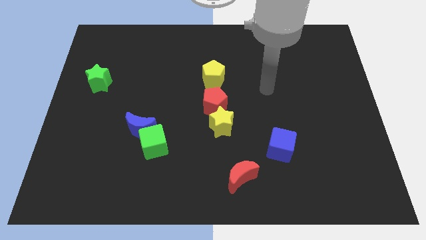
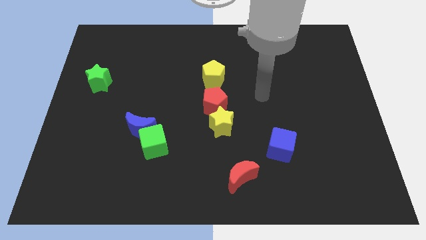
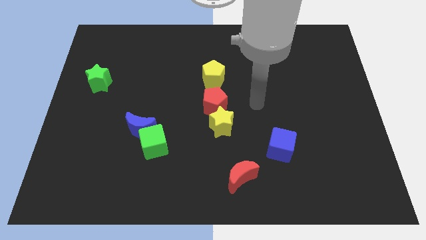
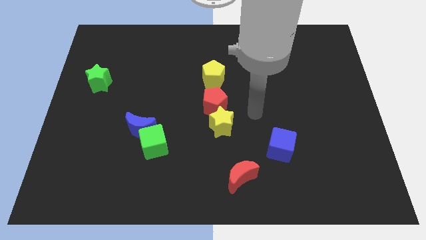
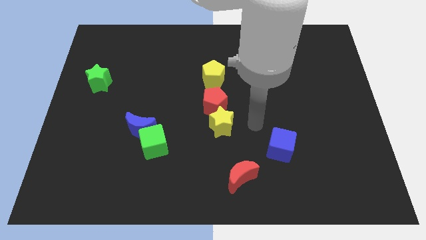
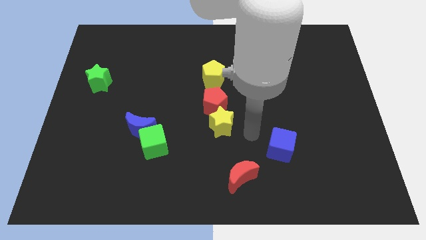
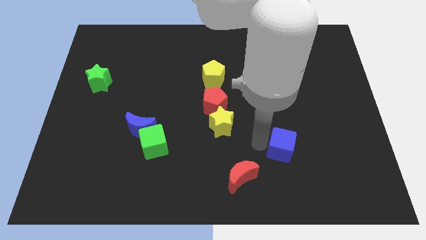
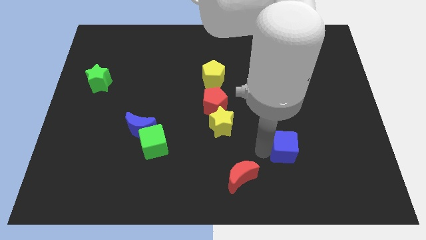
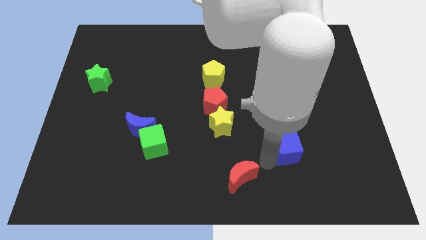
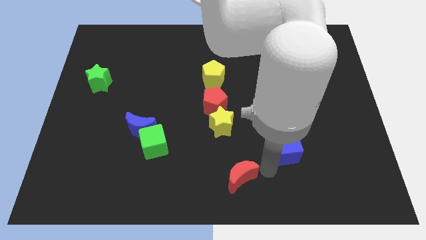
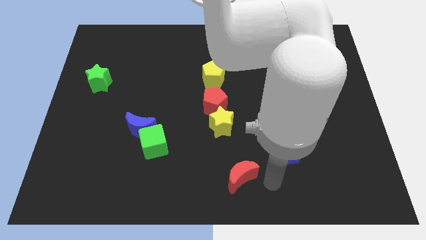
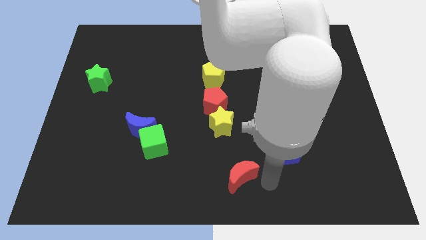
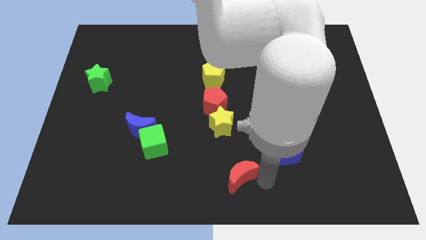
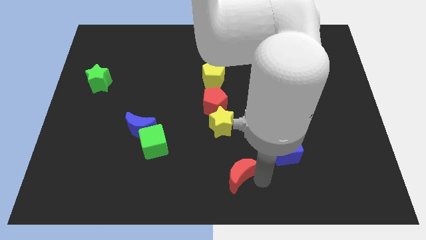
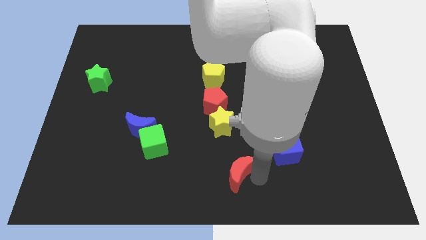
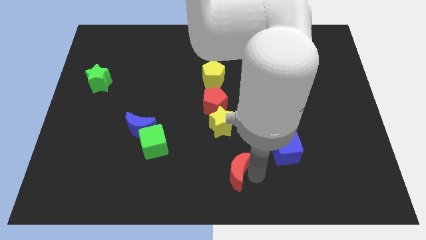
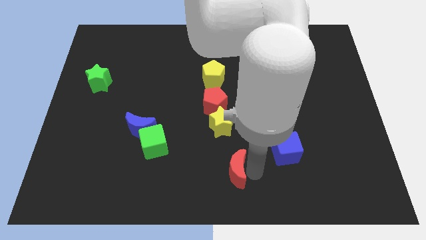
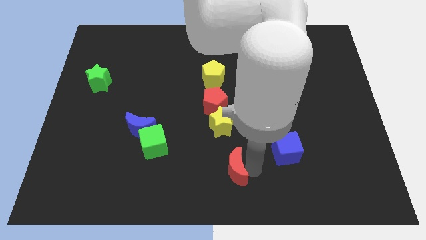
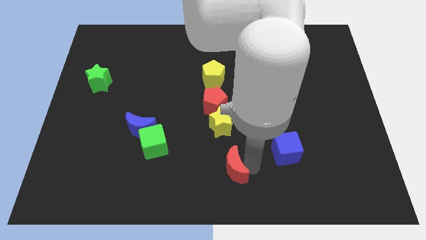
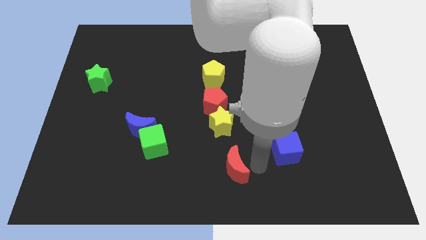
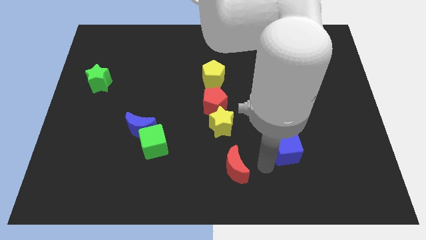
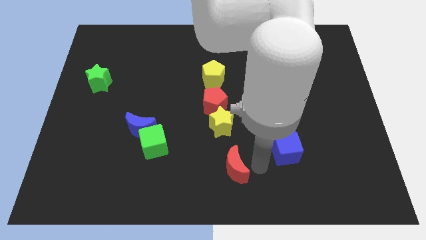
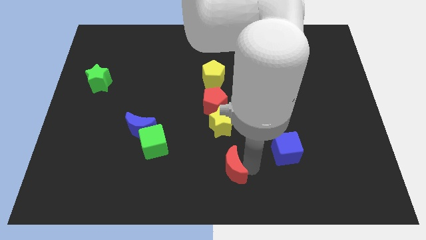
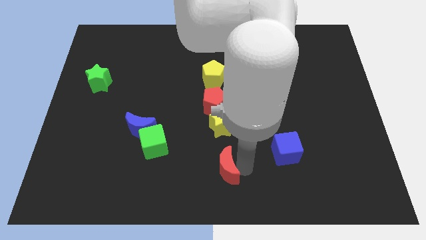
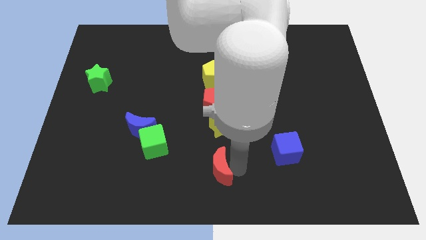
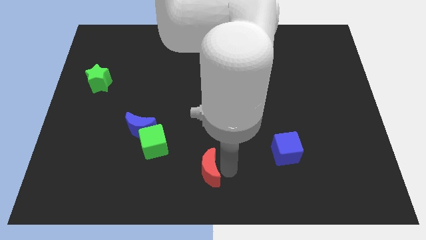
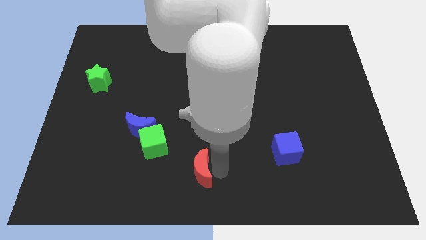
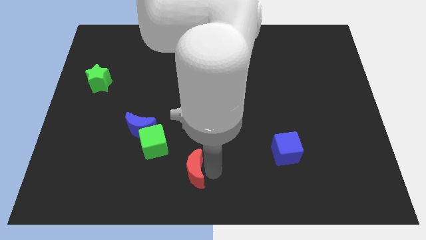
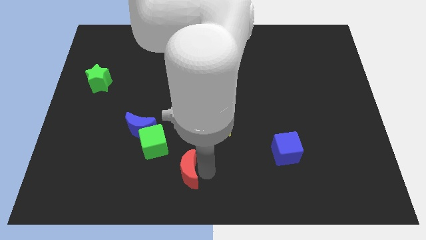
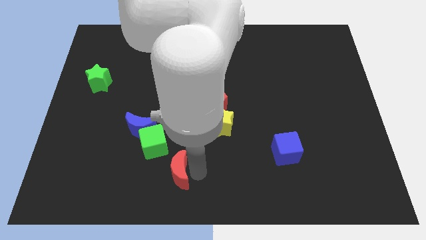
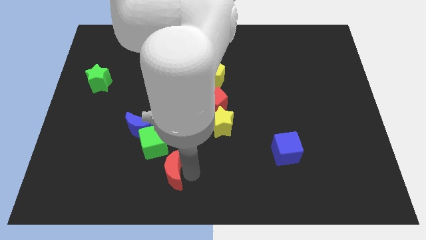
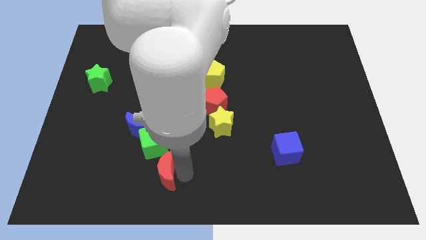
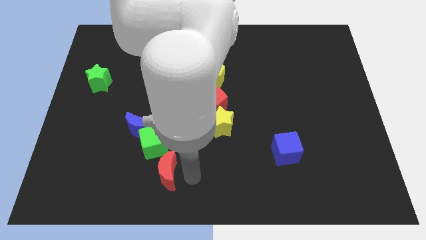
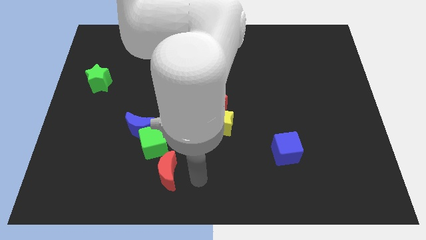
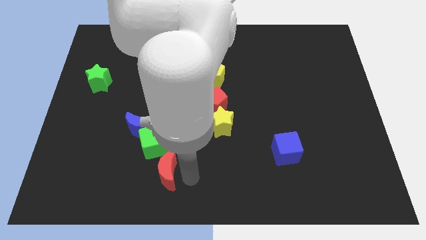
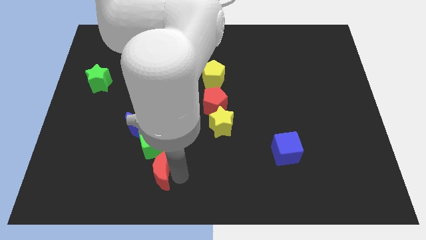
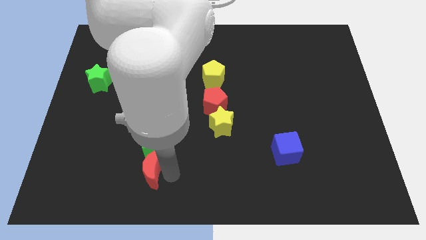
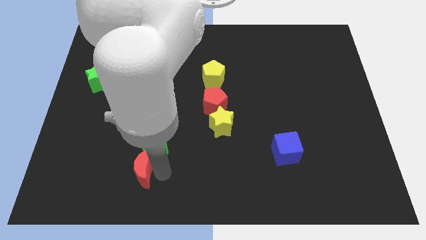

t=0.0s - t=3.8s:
push the red moon left

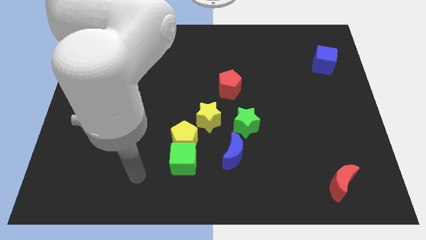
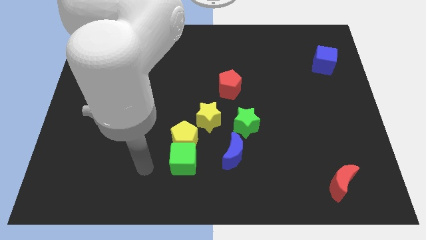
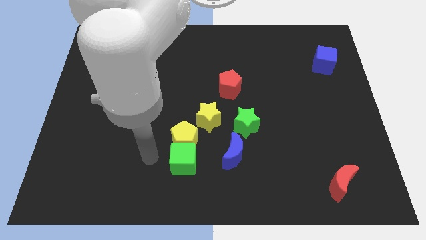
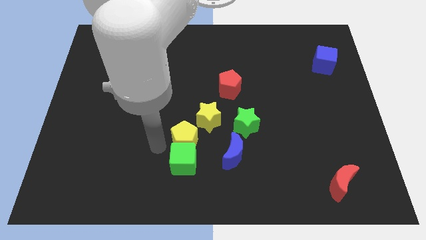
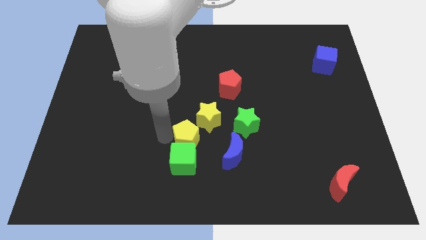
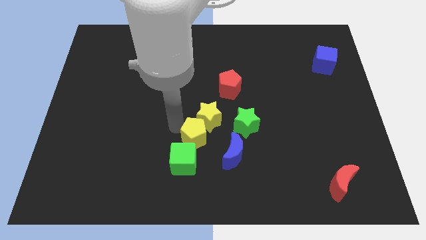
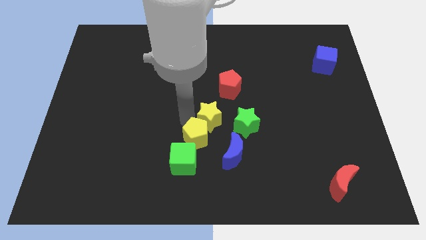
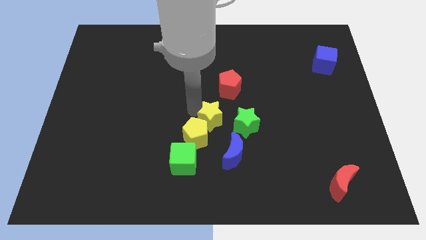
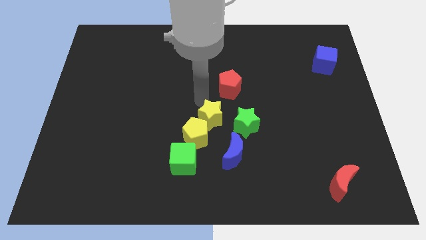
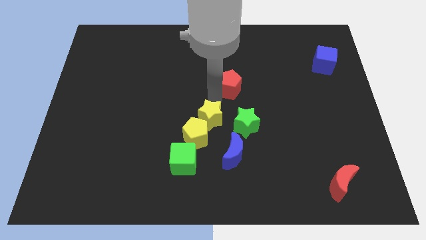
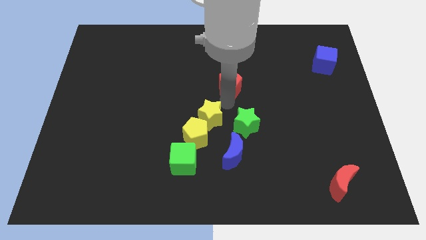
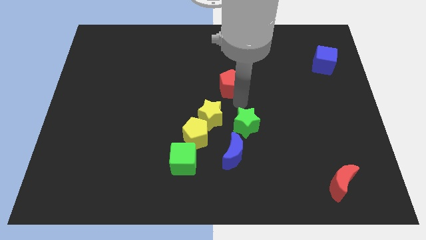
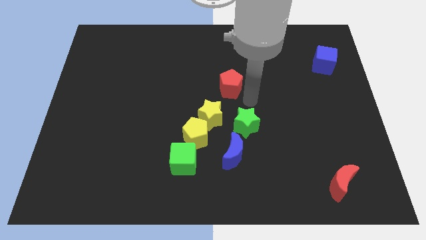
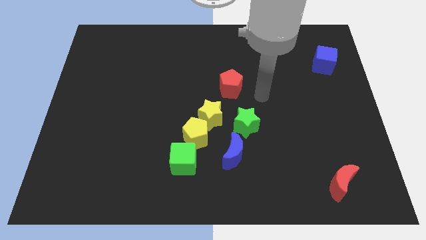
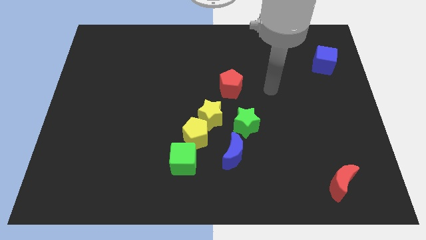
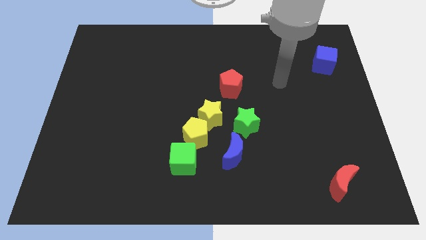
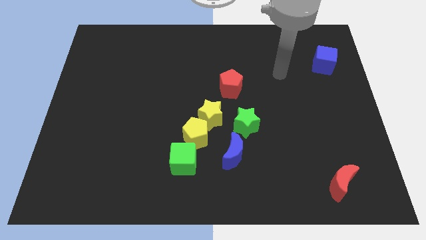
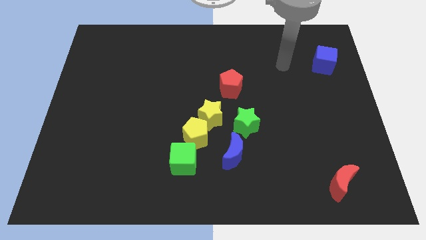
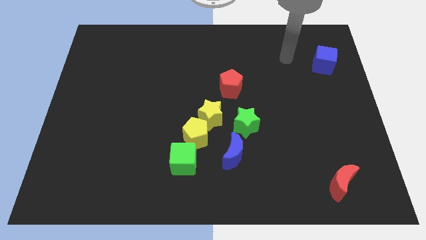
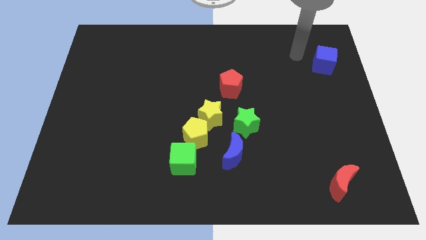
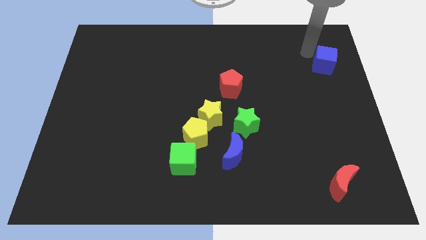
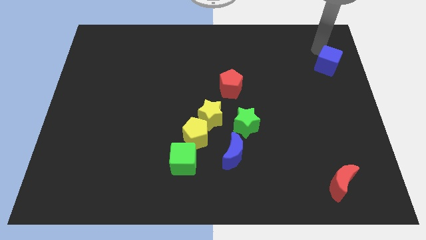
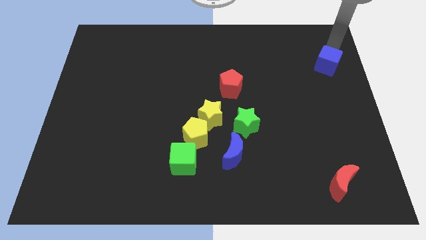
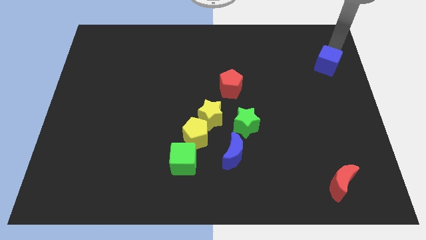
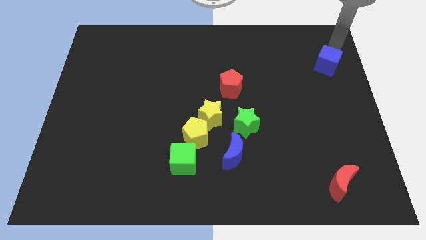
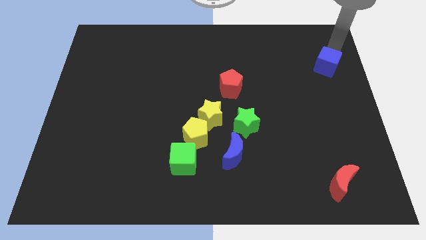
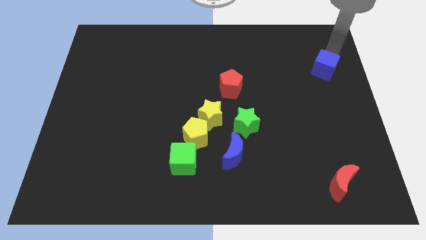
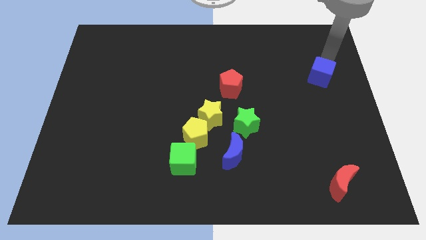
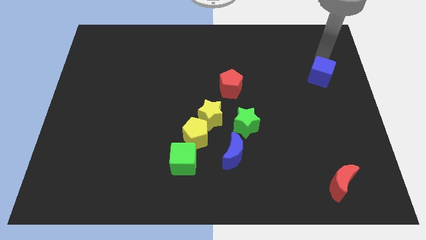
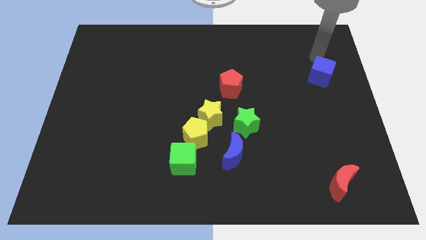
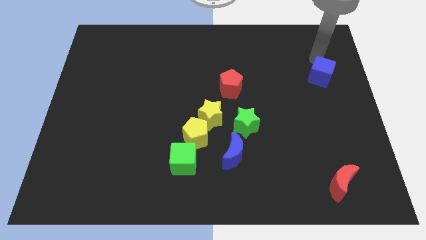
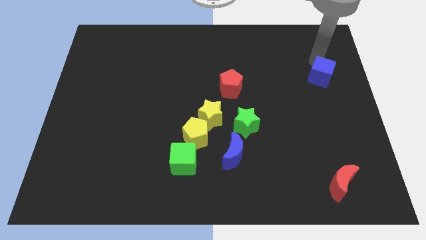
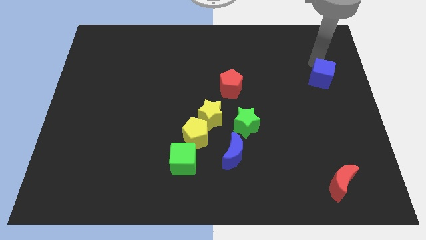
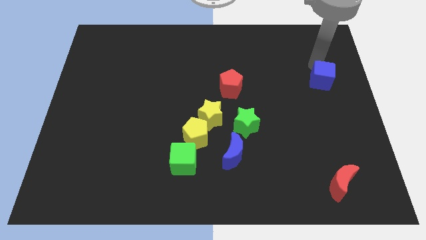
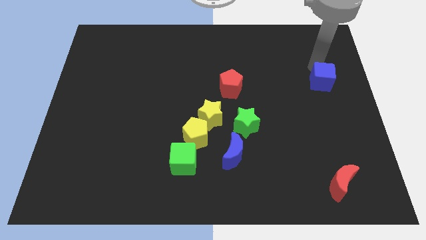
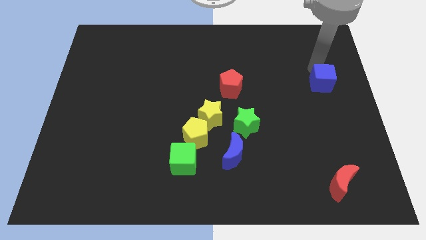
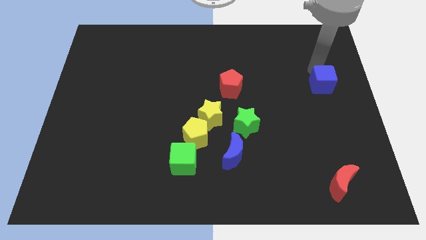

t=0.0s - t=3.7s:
slide the blue cube down a bit

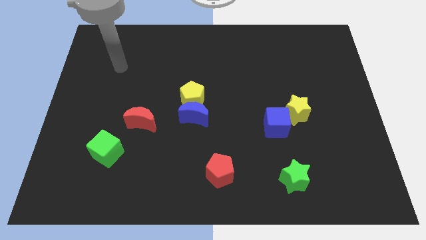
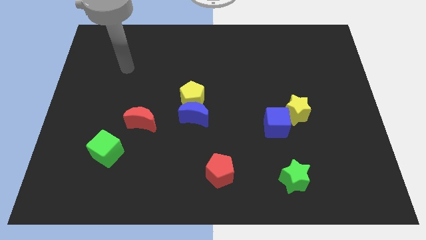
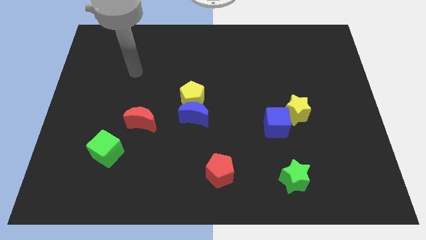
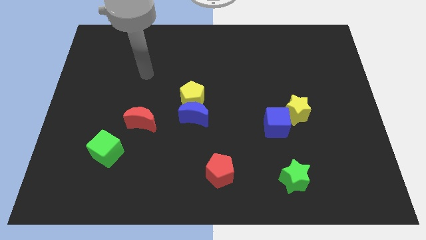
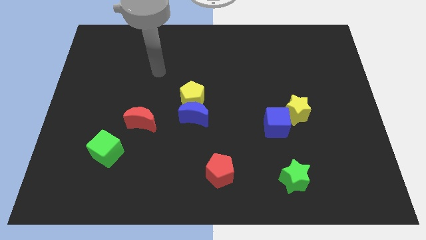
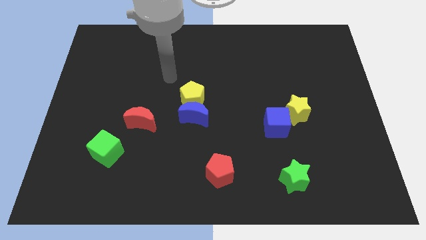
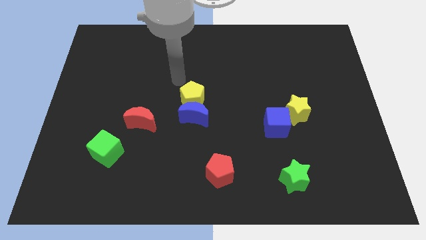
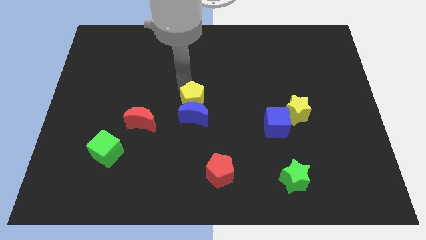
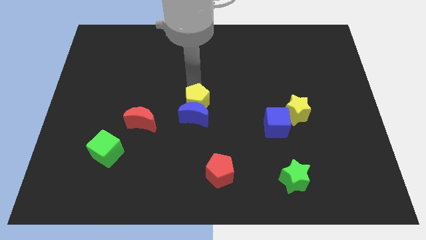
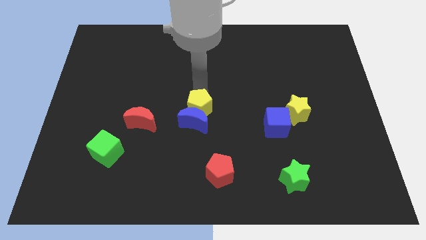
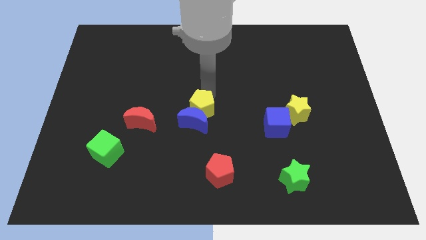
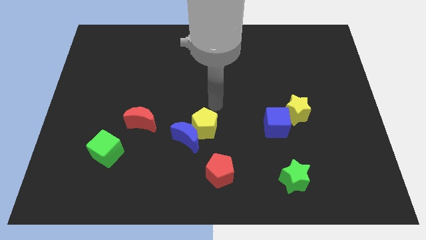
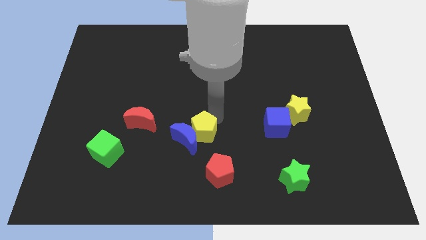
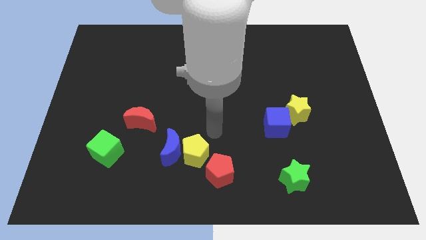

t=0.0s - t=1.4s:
move the blue moon diagonally down and left a little
